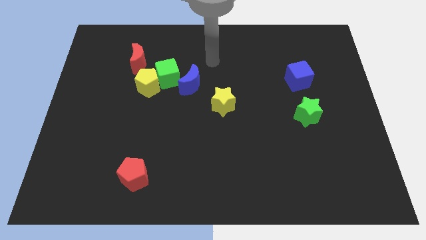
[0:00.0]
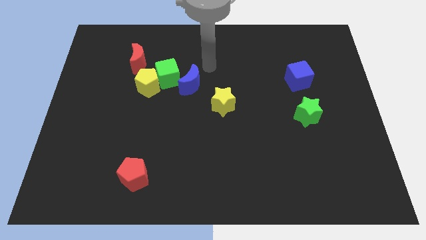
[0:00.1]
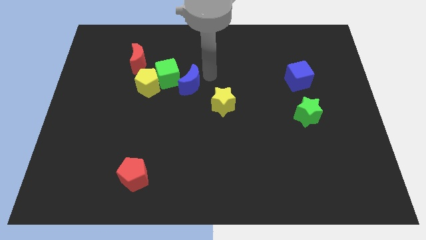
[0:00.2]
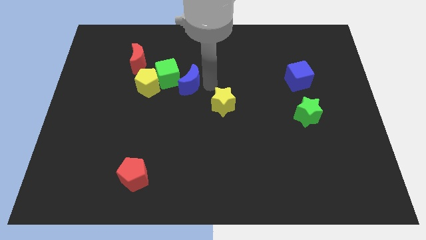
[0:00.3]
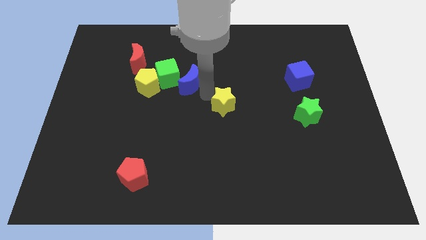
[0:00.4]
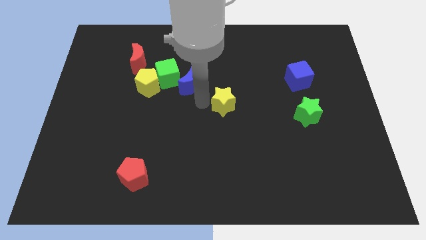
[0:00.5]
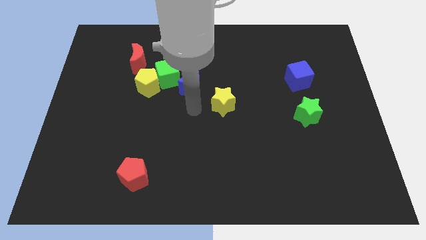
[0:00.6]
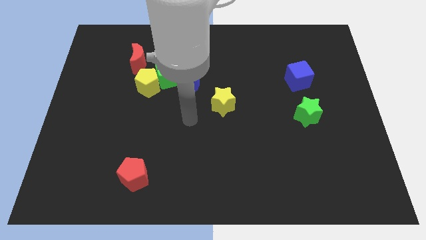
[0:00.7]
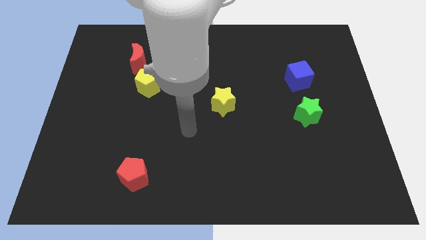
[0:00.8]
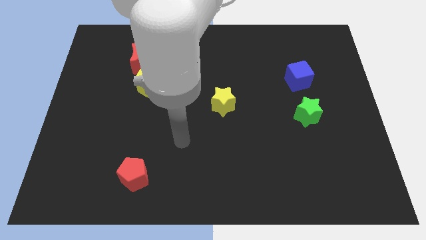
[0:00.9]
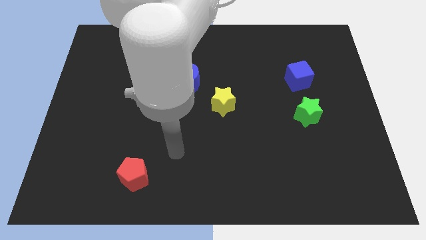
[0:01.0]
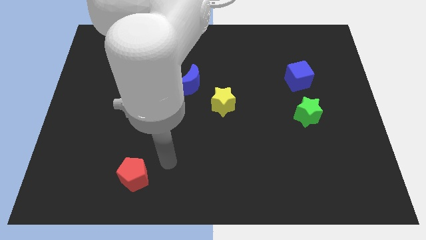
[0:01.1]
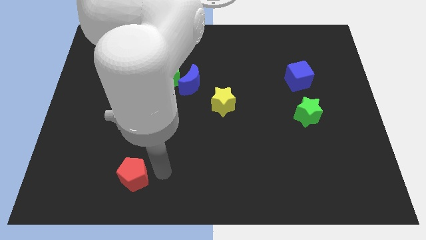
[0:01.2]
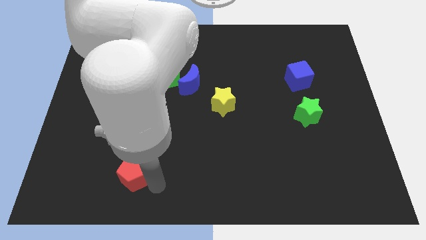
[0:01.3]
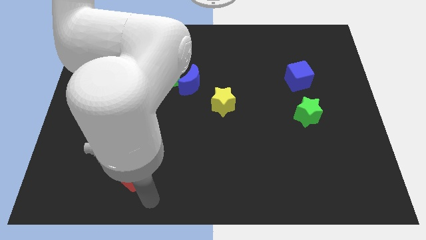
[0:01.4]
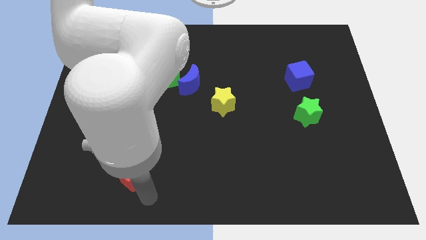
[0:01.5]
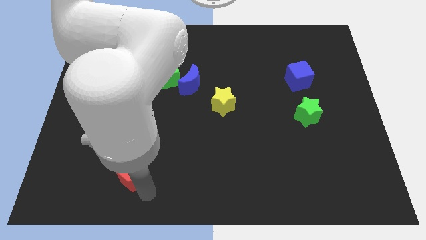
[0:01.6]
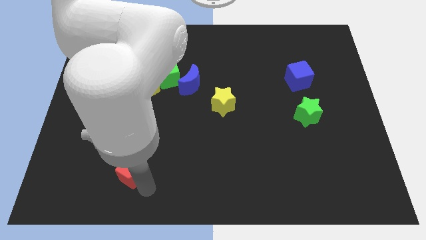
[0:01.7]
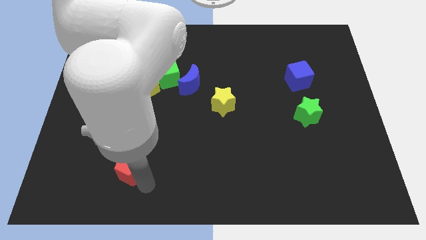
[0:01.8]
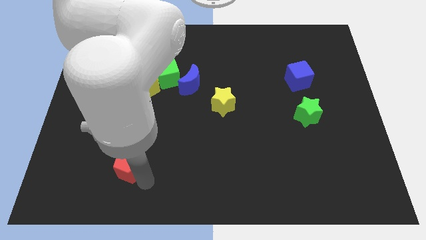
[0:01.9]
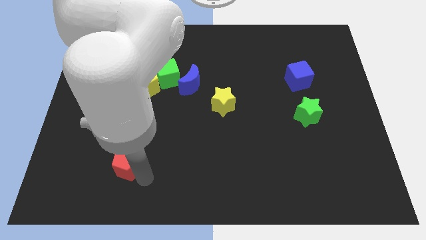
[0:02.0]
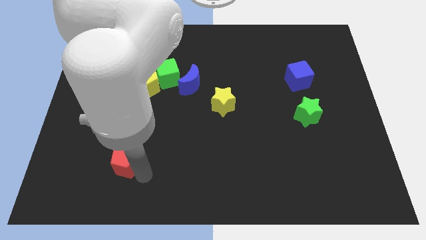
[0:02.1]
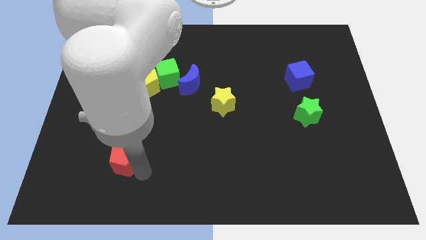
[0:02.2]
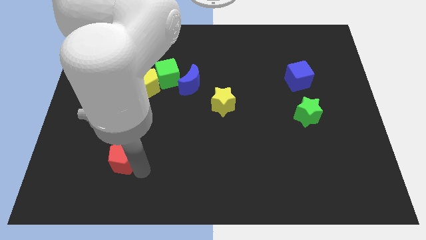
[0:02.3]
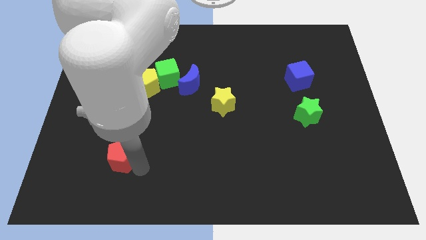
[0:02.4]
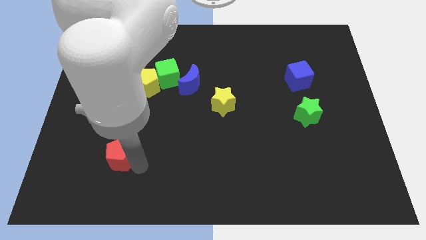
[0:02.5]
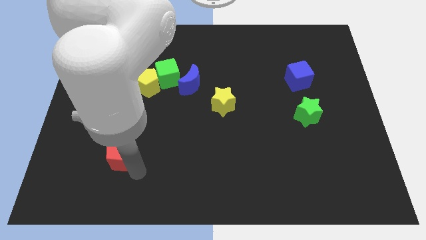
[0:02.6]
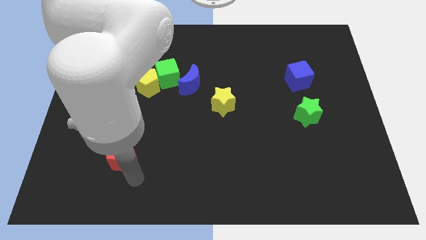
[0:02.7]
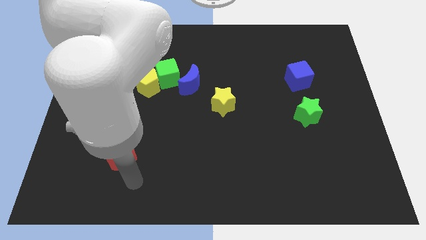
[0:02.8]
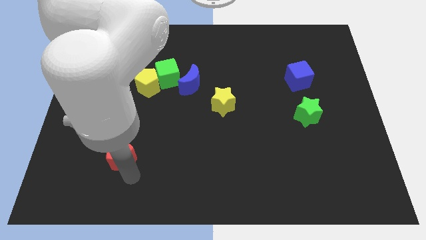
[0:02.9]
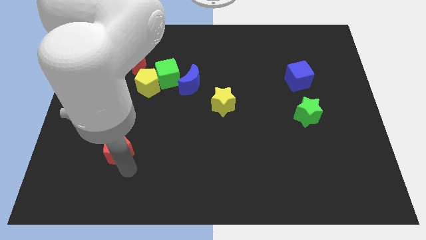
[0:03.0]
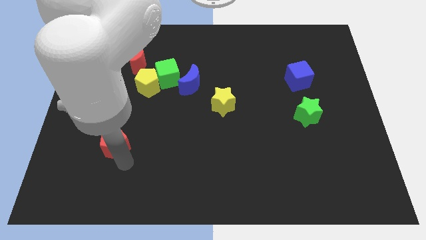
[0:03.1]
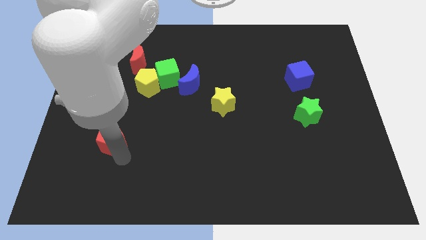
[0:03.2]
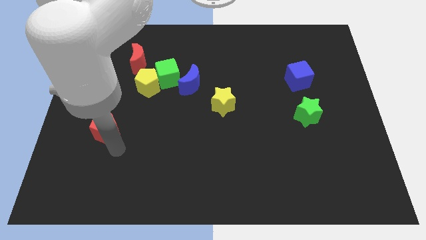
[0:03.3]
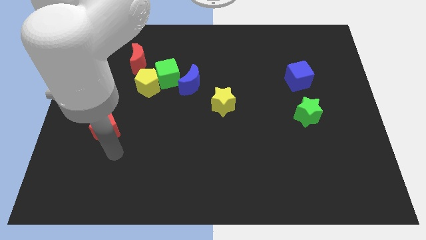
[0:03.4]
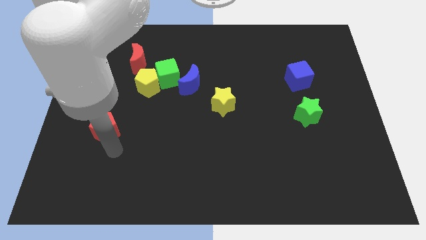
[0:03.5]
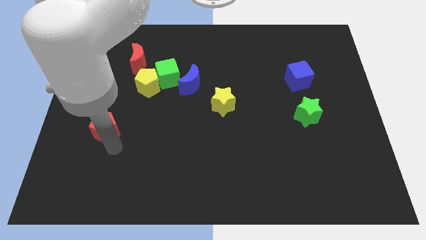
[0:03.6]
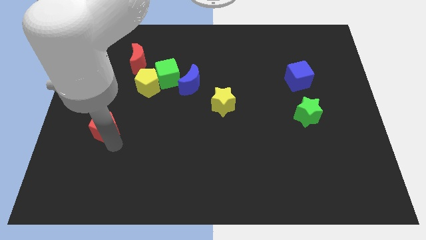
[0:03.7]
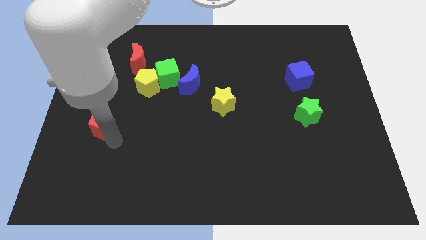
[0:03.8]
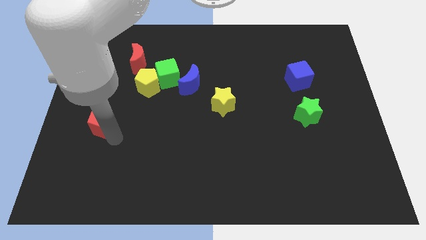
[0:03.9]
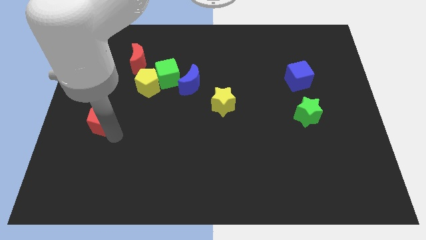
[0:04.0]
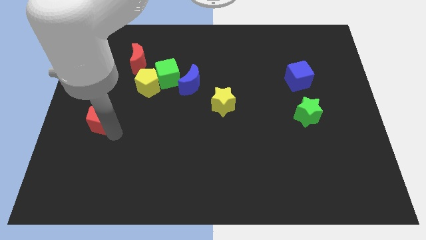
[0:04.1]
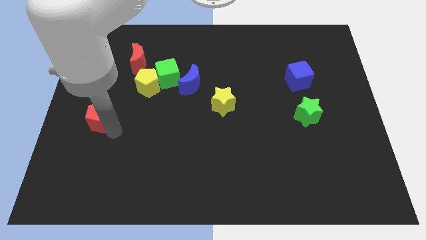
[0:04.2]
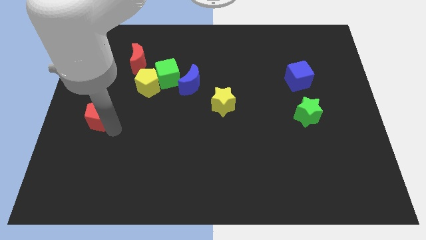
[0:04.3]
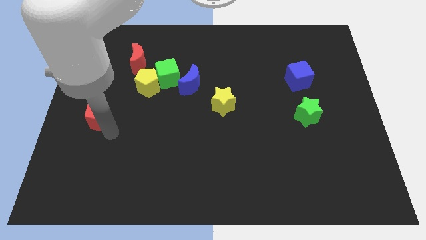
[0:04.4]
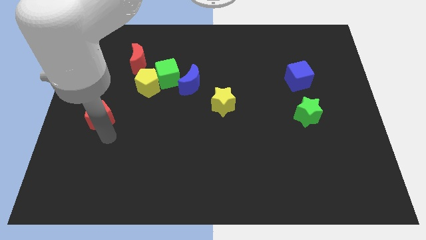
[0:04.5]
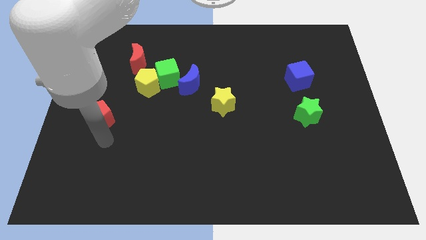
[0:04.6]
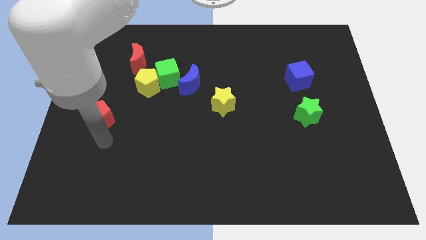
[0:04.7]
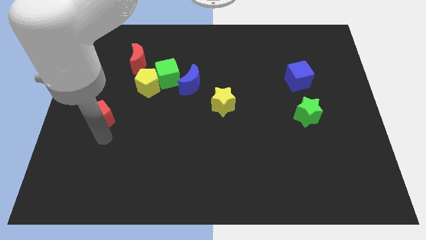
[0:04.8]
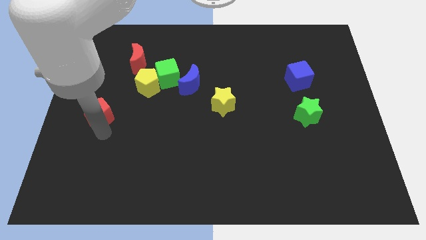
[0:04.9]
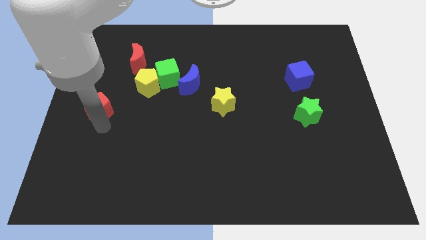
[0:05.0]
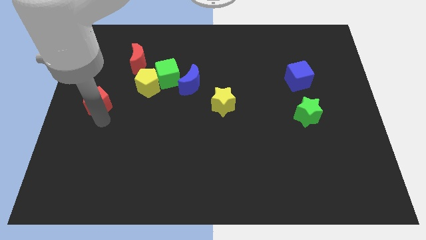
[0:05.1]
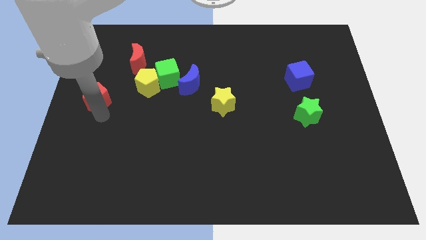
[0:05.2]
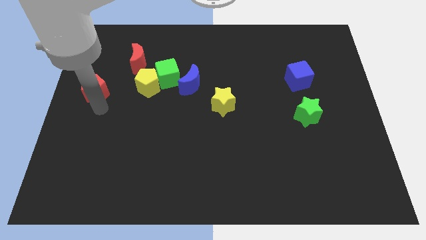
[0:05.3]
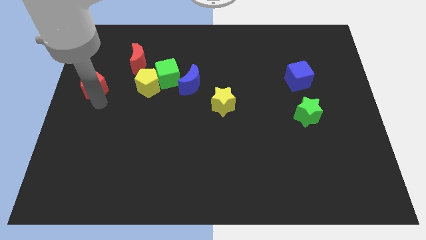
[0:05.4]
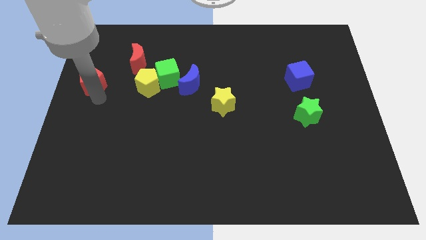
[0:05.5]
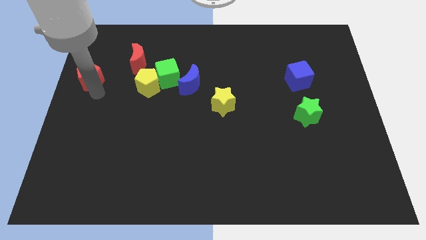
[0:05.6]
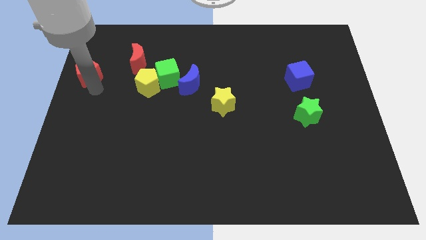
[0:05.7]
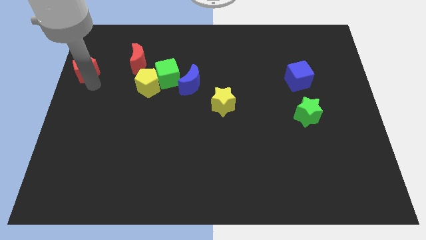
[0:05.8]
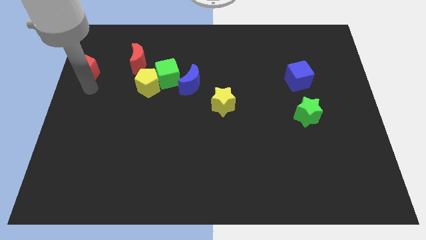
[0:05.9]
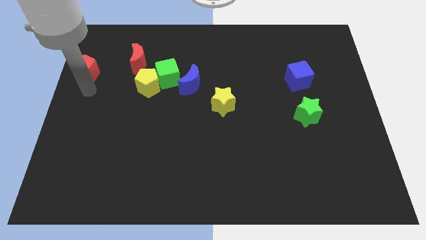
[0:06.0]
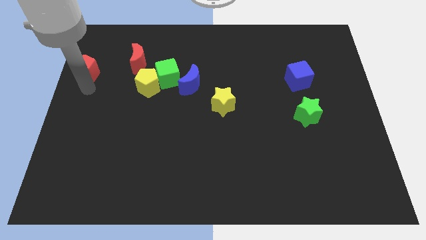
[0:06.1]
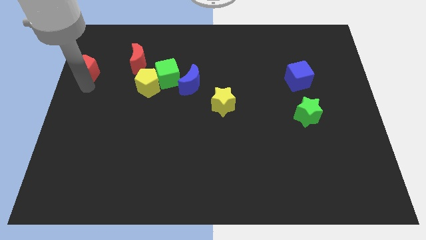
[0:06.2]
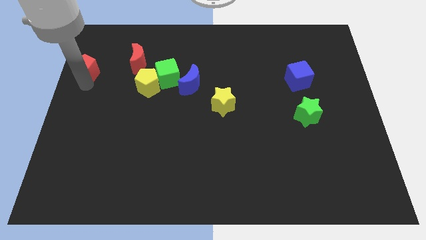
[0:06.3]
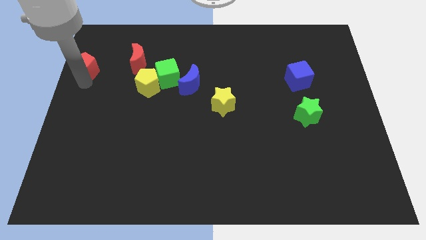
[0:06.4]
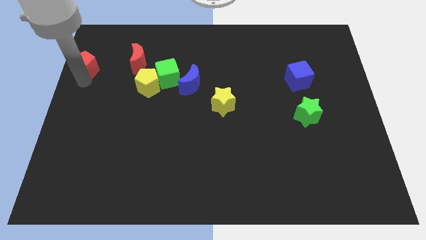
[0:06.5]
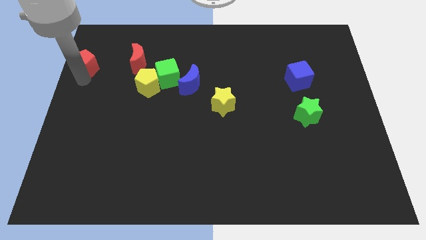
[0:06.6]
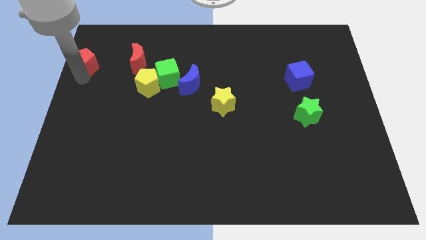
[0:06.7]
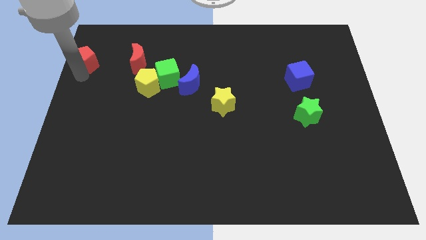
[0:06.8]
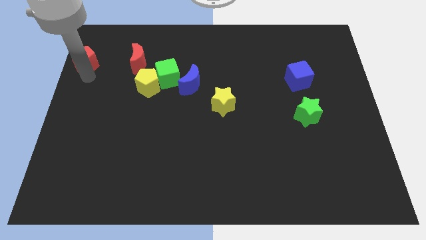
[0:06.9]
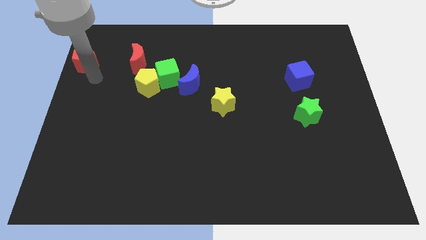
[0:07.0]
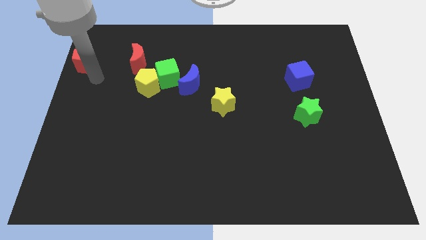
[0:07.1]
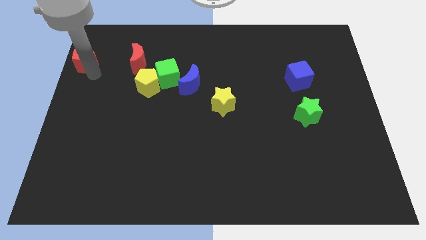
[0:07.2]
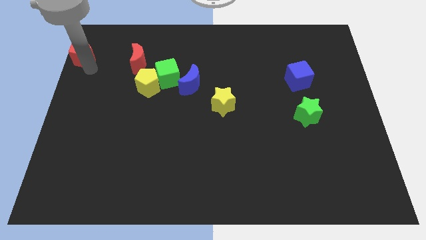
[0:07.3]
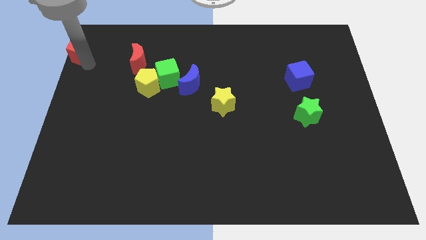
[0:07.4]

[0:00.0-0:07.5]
move the red pentagon to the upper left corner
